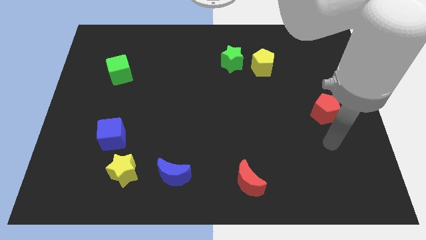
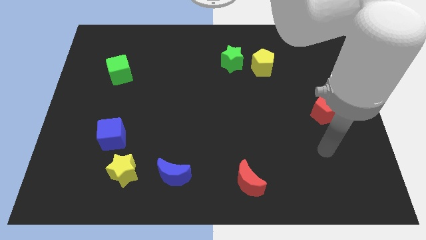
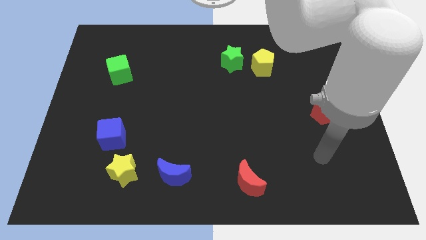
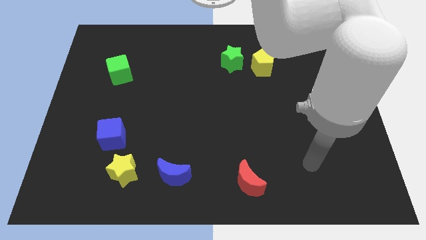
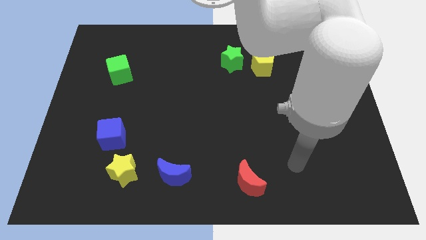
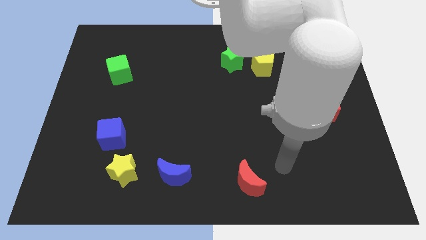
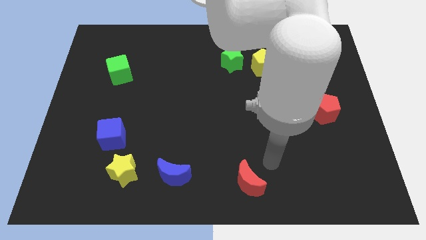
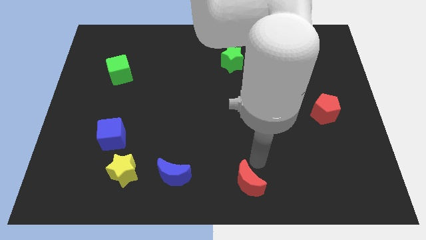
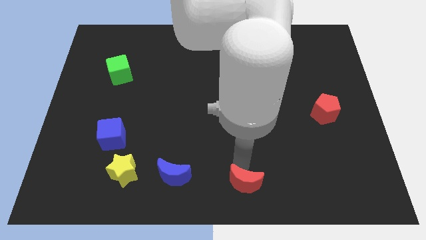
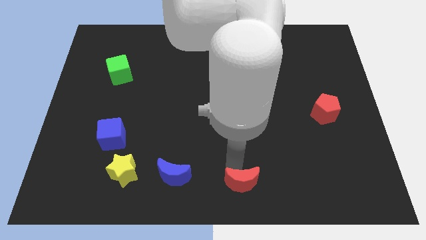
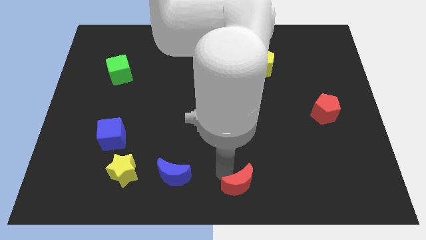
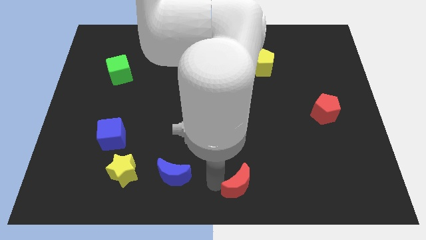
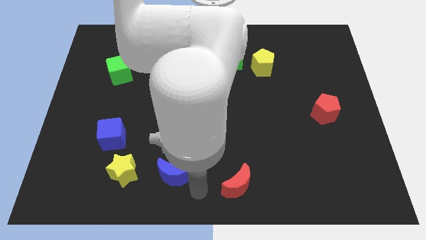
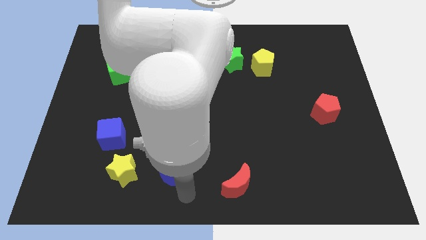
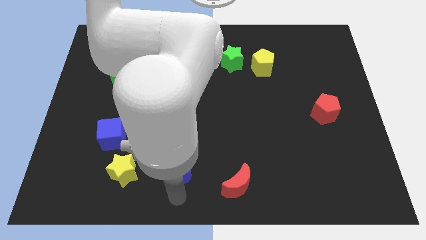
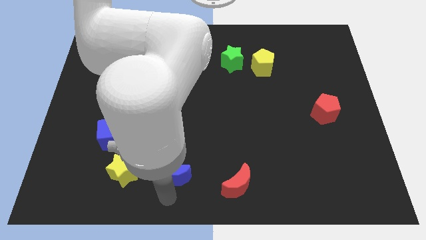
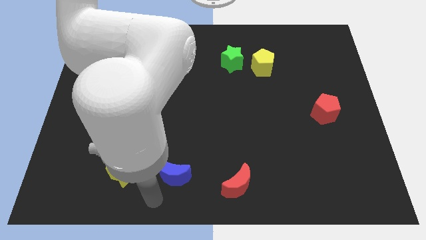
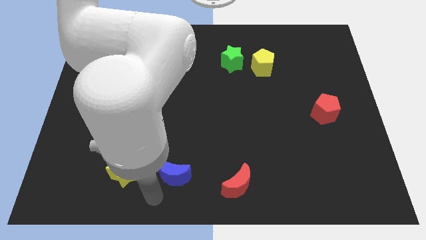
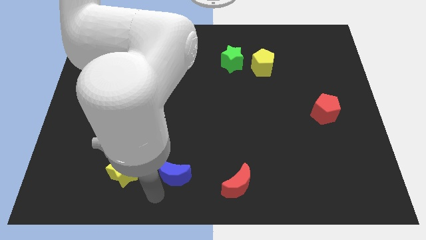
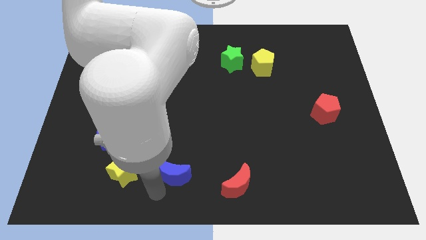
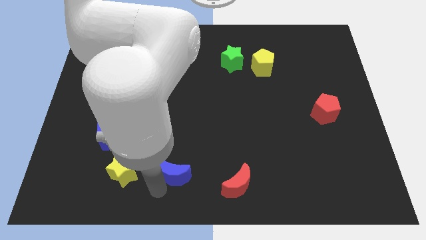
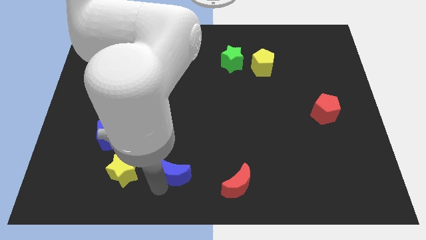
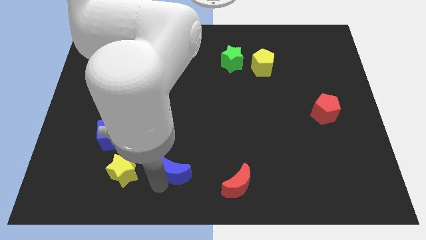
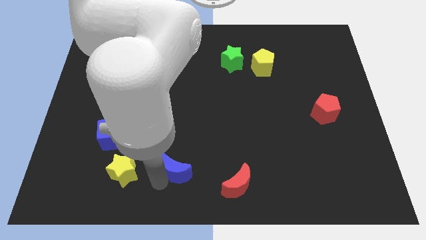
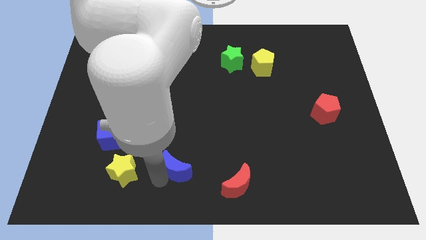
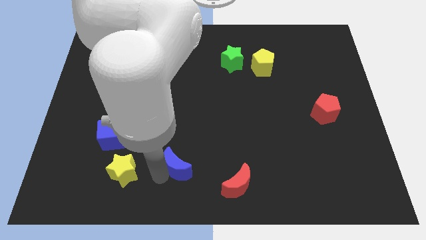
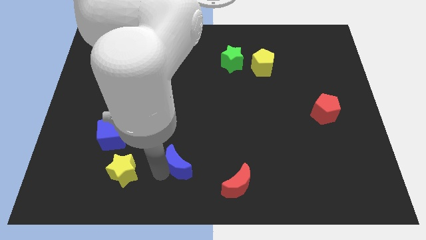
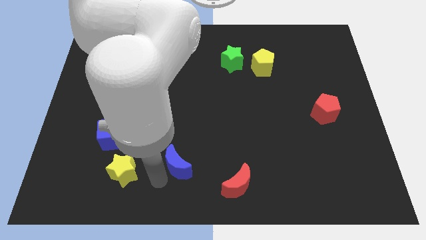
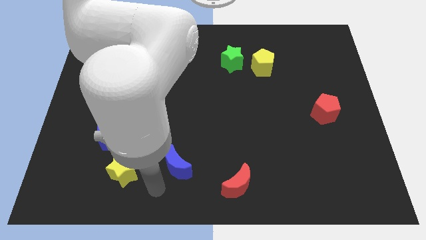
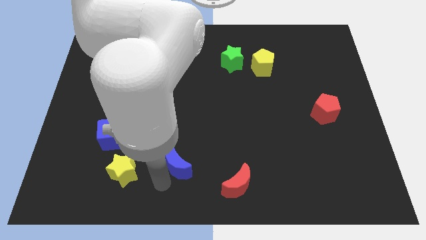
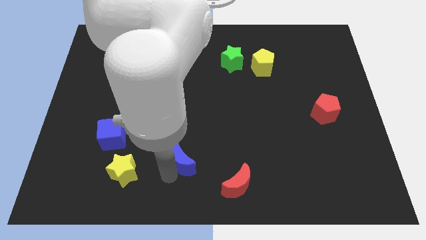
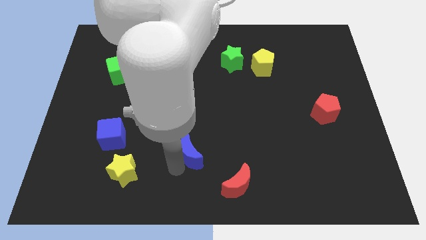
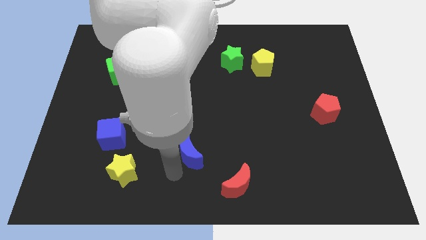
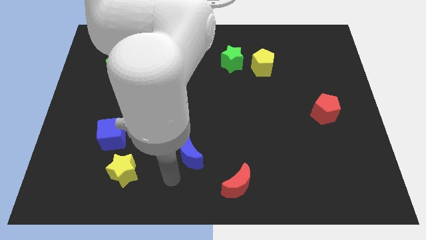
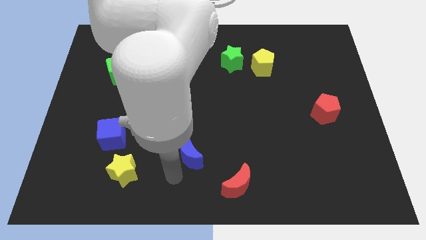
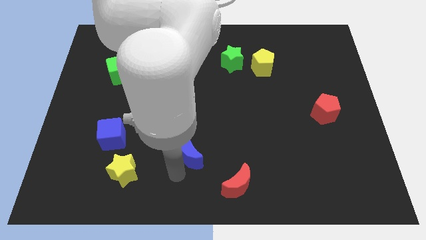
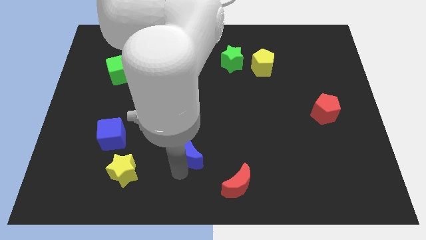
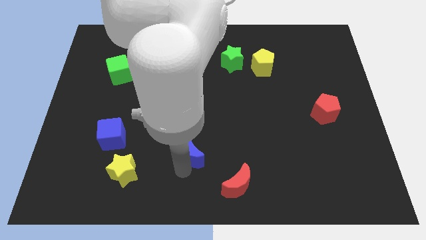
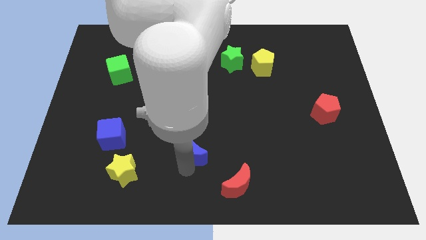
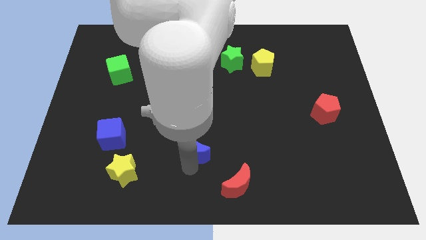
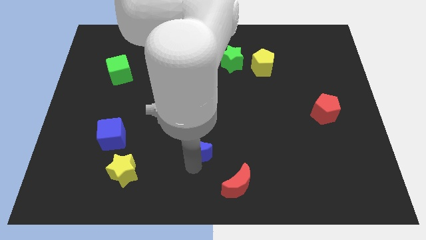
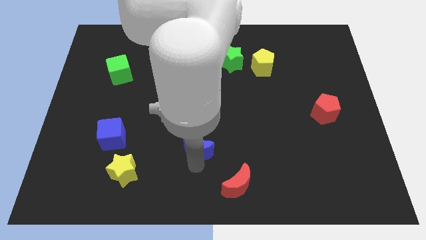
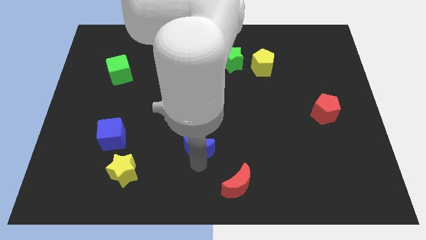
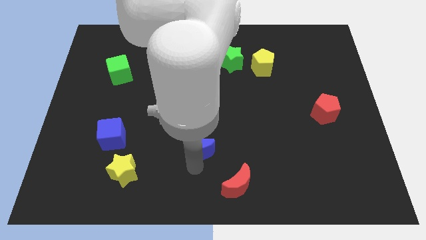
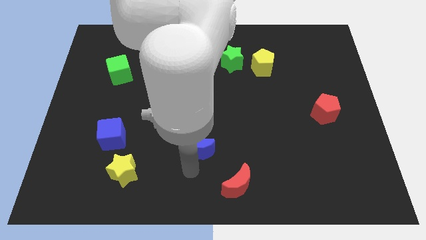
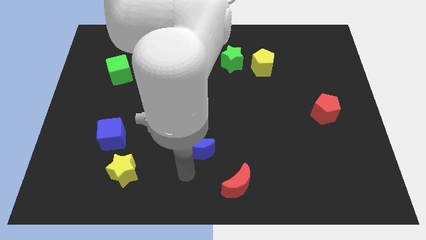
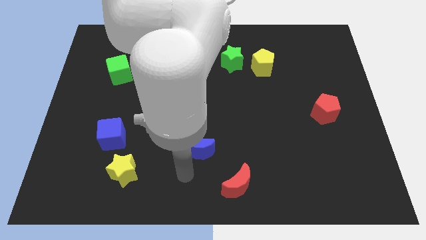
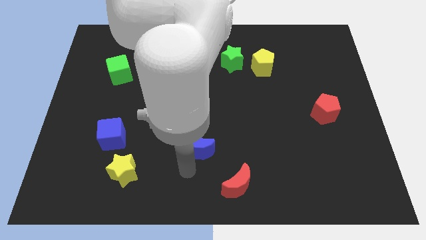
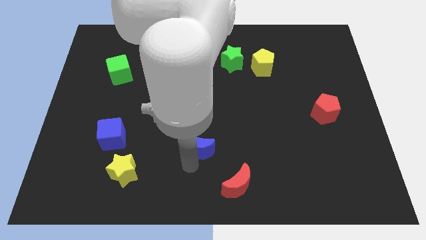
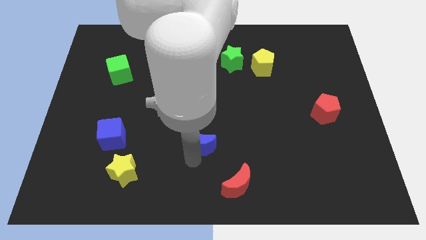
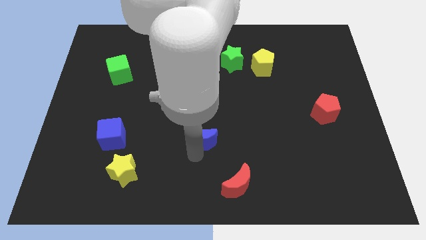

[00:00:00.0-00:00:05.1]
move the blue moon to the middle

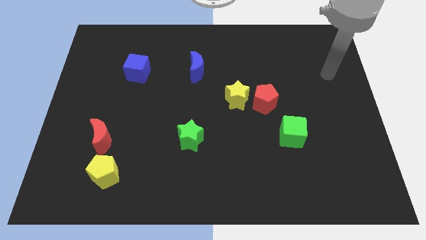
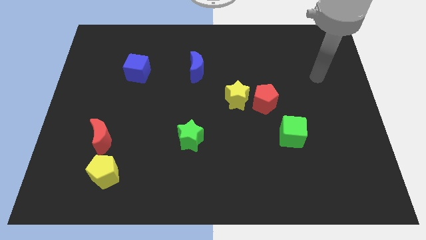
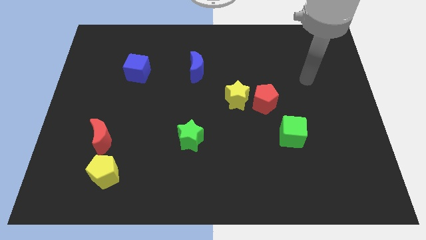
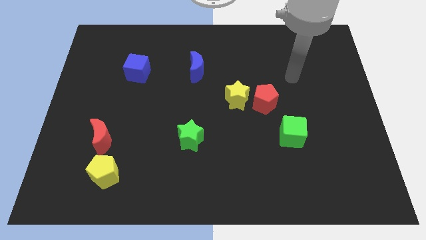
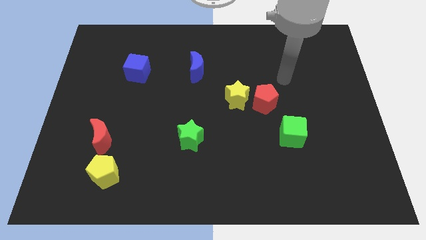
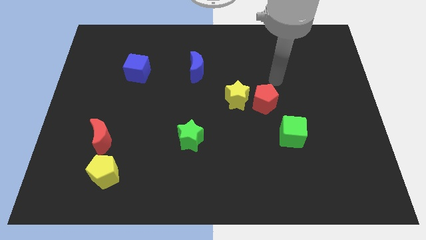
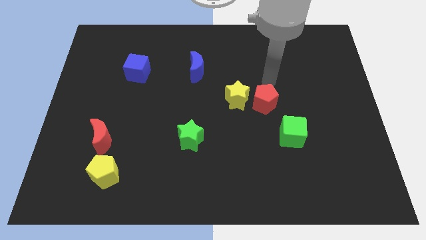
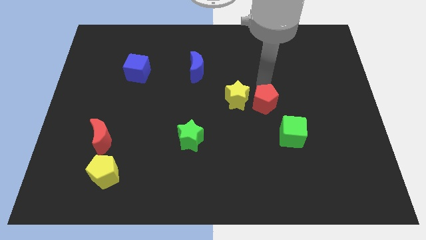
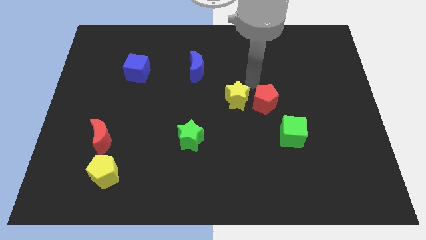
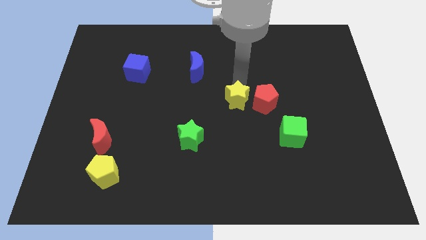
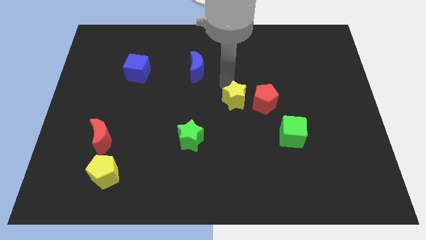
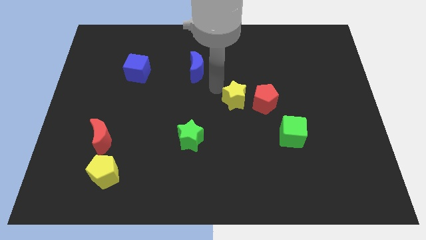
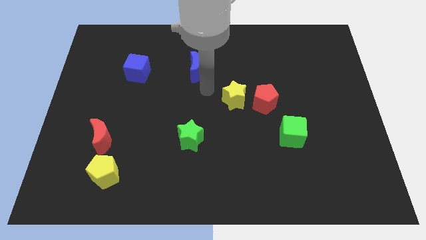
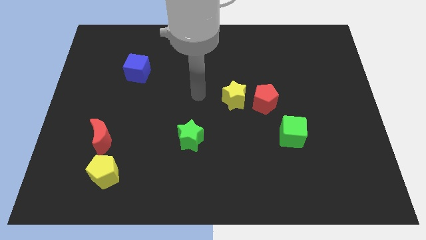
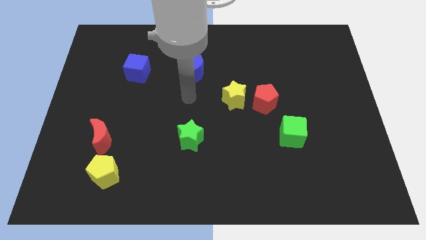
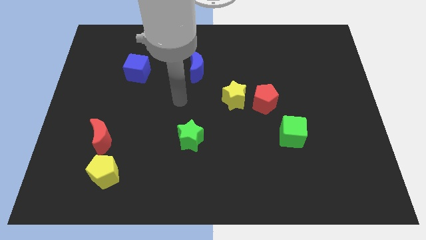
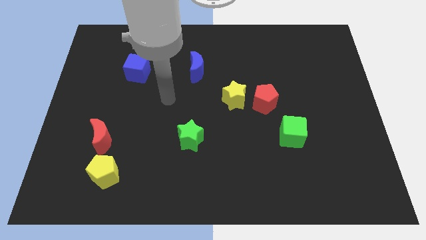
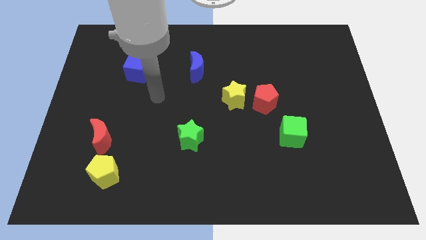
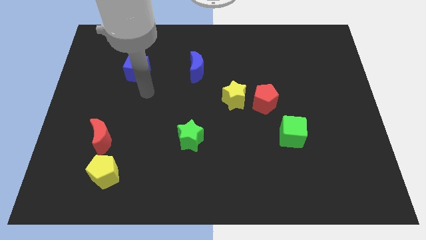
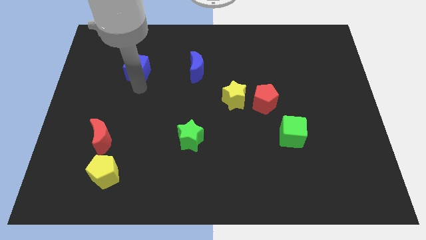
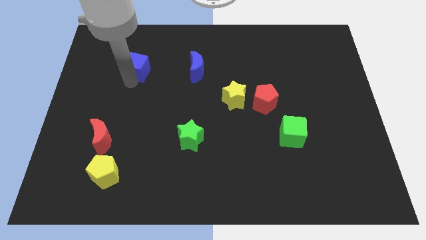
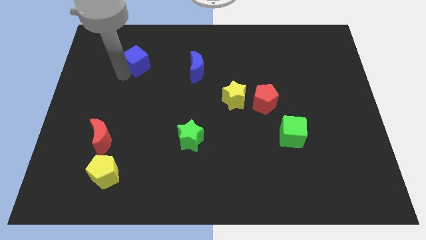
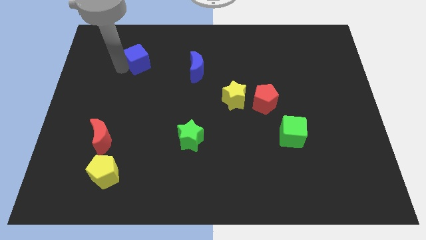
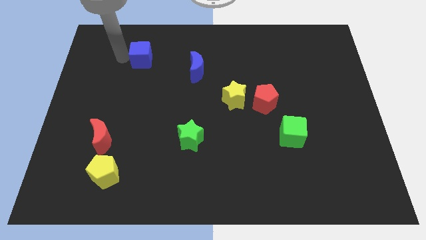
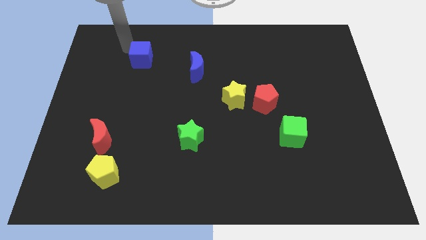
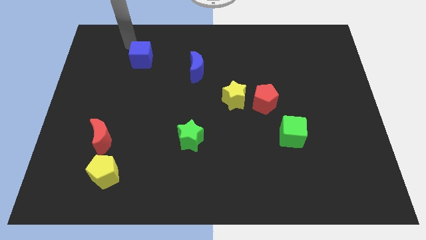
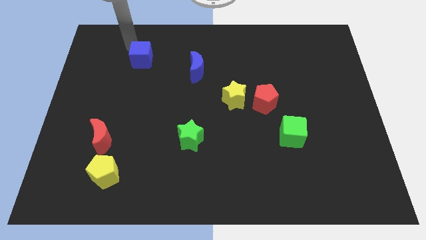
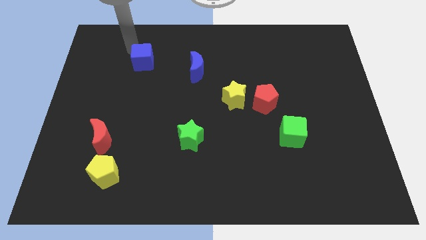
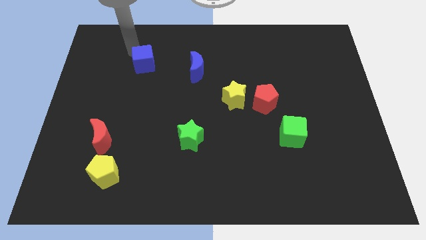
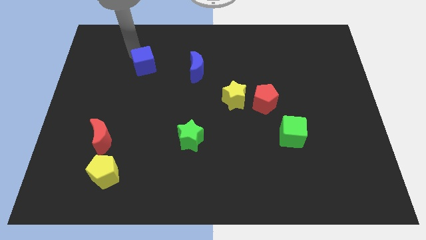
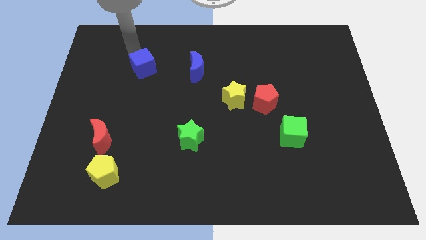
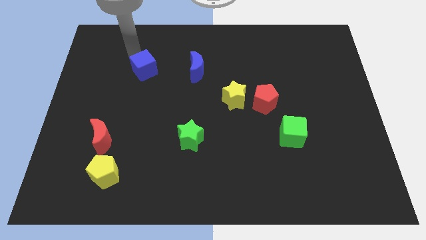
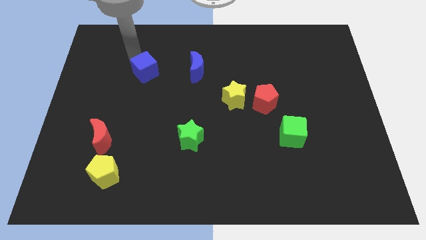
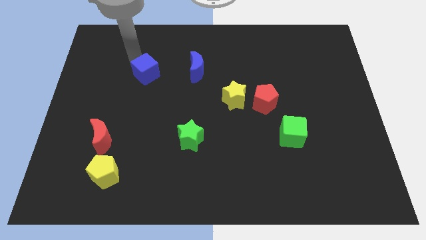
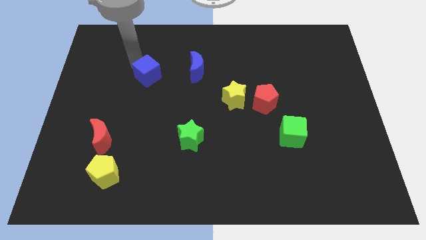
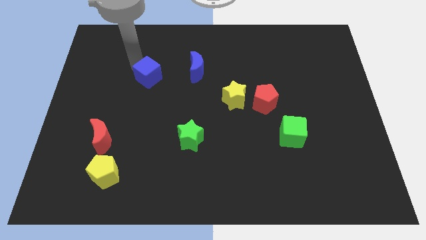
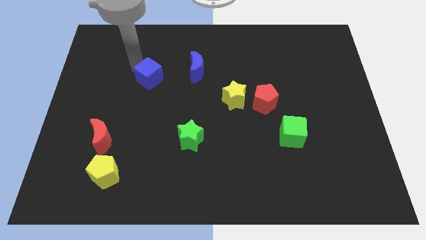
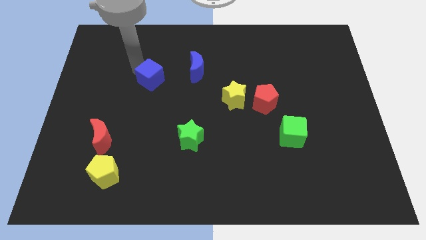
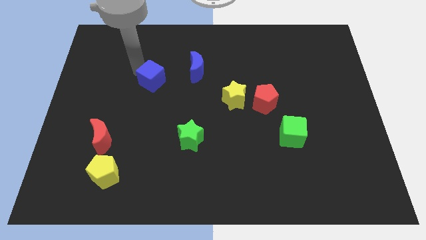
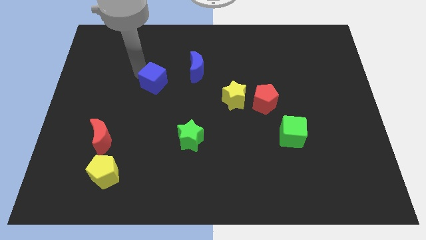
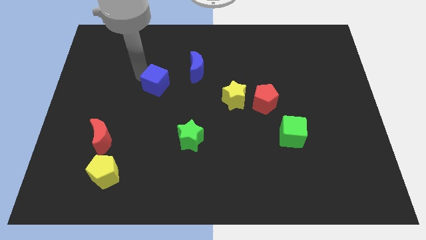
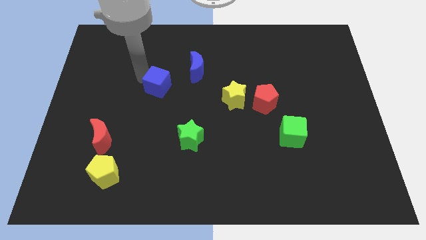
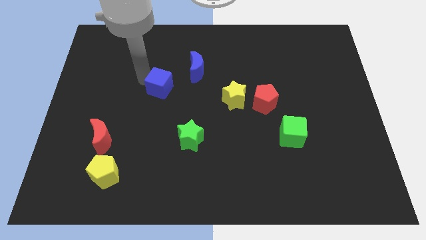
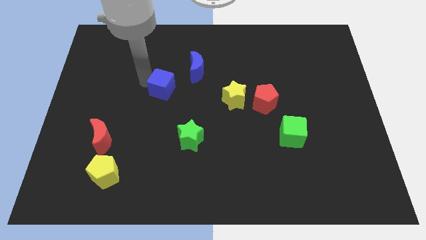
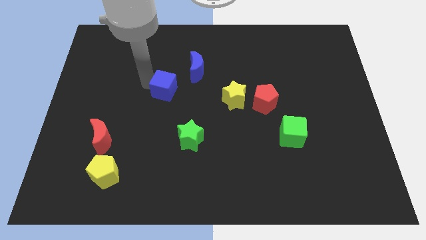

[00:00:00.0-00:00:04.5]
put the blue cube to the center of the board
